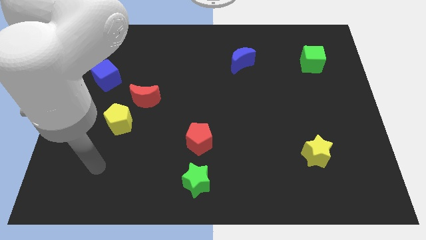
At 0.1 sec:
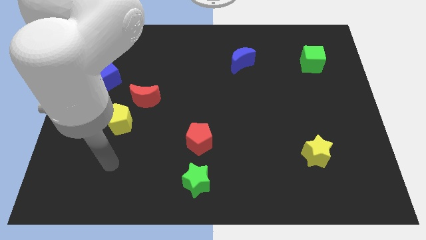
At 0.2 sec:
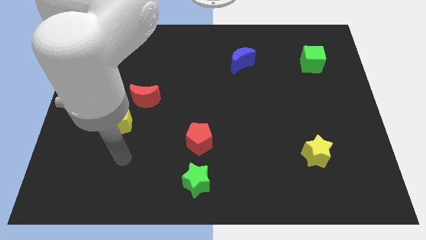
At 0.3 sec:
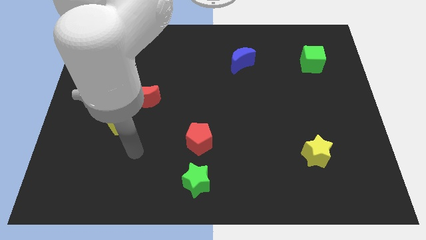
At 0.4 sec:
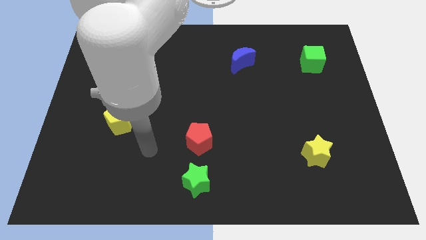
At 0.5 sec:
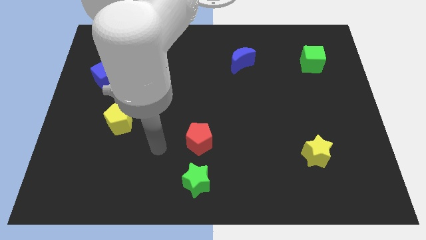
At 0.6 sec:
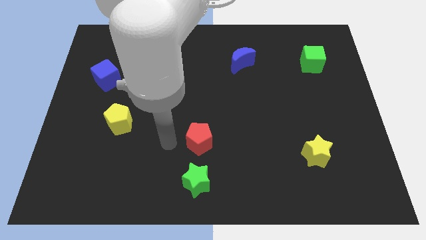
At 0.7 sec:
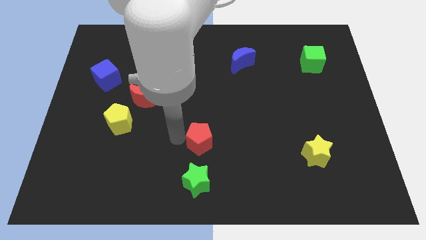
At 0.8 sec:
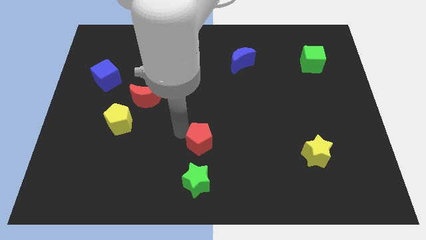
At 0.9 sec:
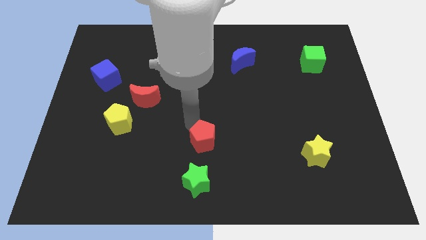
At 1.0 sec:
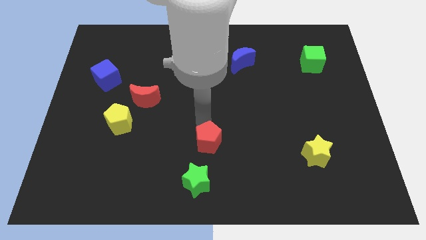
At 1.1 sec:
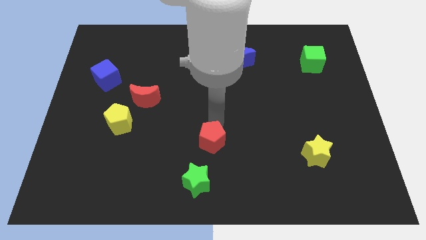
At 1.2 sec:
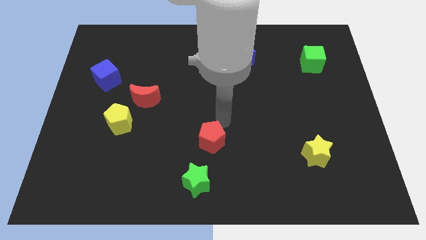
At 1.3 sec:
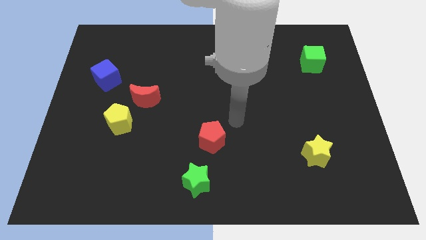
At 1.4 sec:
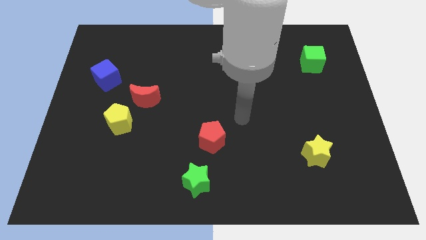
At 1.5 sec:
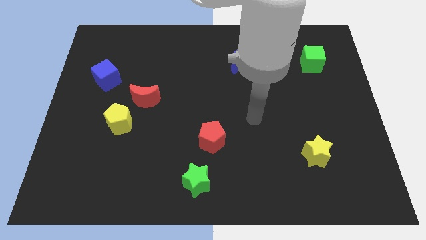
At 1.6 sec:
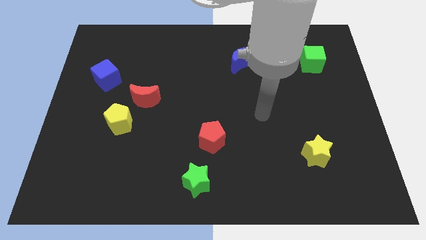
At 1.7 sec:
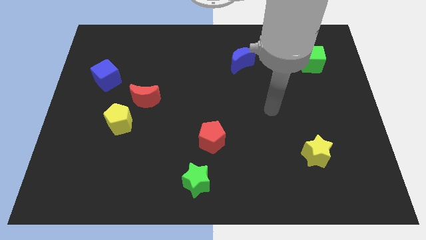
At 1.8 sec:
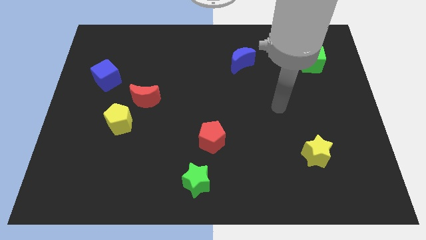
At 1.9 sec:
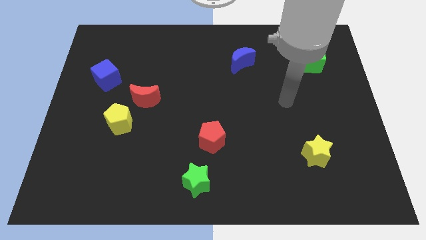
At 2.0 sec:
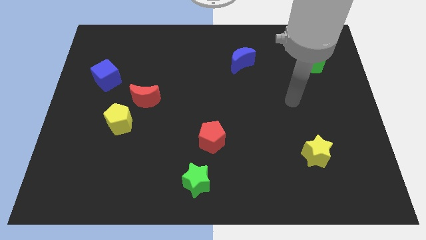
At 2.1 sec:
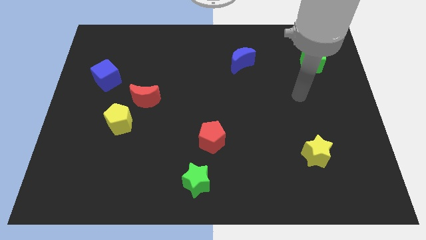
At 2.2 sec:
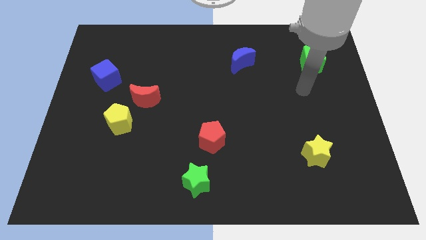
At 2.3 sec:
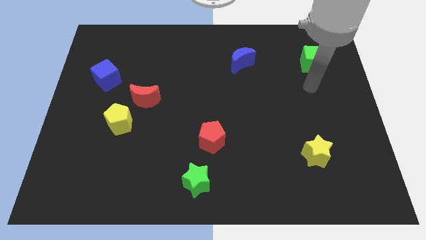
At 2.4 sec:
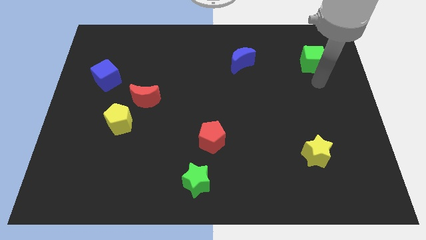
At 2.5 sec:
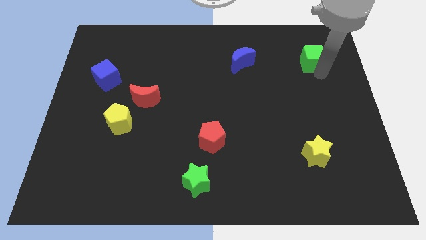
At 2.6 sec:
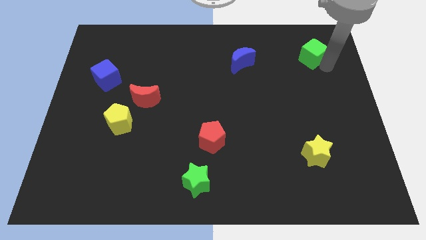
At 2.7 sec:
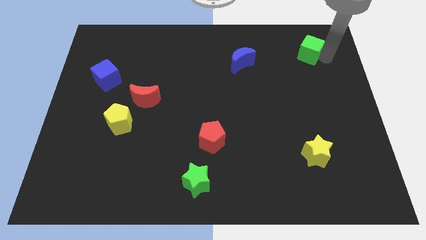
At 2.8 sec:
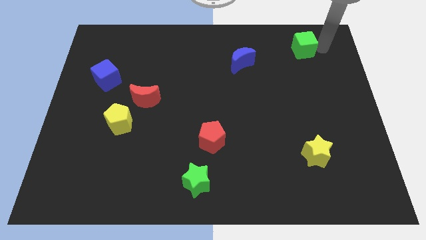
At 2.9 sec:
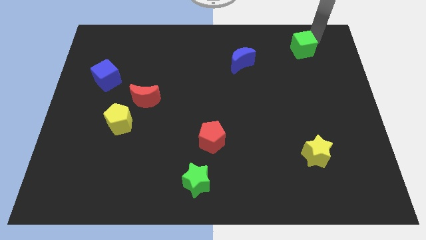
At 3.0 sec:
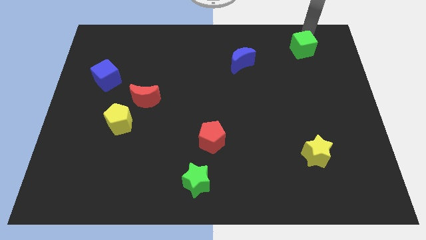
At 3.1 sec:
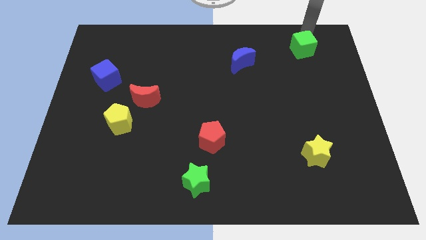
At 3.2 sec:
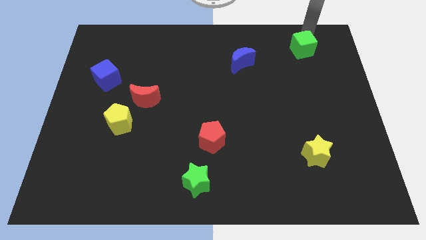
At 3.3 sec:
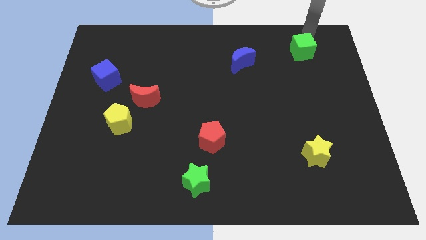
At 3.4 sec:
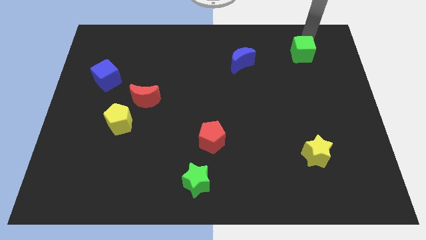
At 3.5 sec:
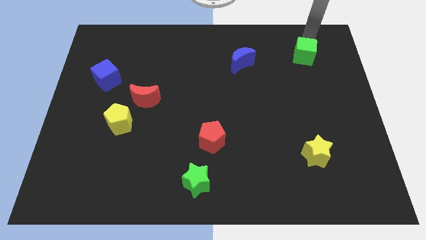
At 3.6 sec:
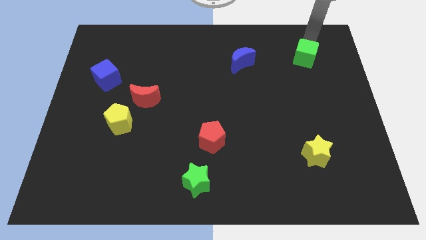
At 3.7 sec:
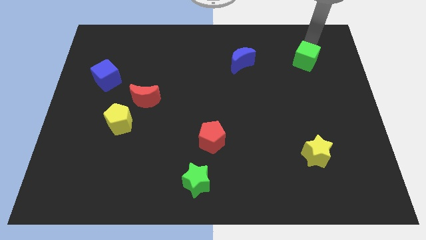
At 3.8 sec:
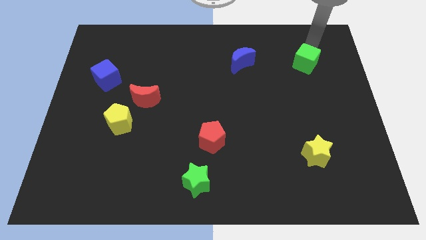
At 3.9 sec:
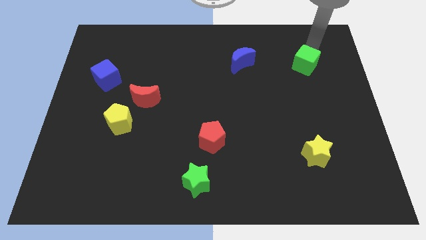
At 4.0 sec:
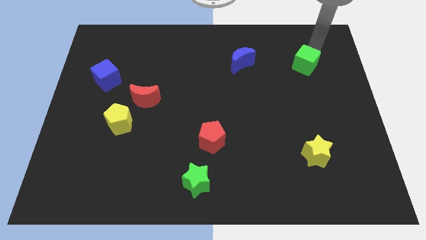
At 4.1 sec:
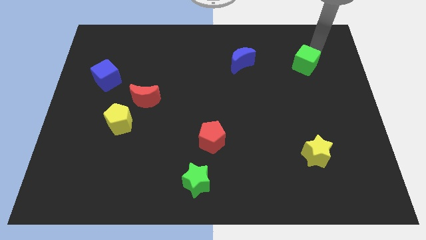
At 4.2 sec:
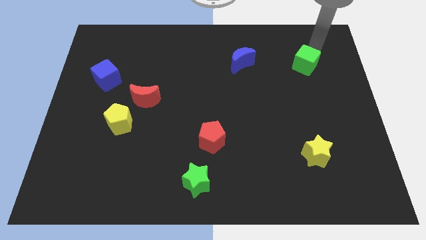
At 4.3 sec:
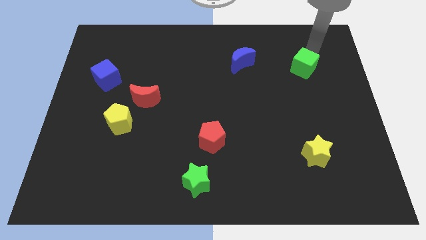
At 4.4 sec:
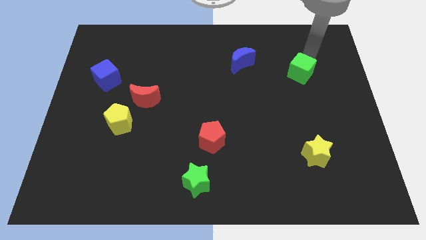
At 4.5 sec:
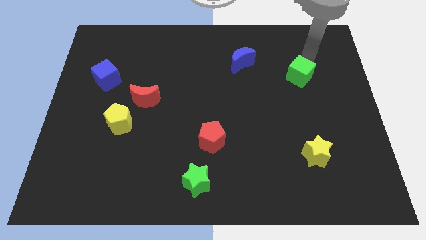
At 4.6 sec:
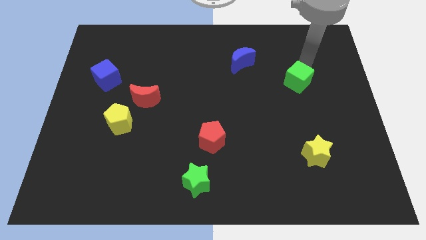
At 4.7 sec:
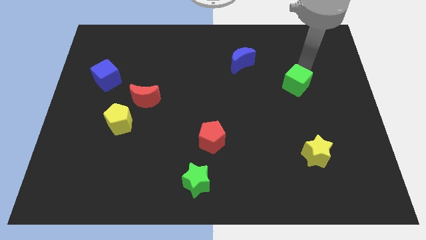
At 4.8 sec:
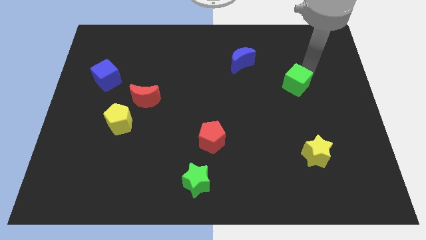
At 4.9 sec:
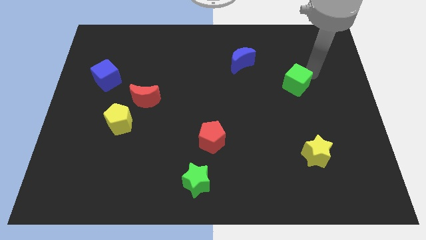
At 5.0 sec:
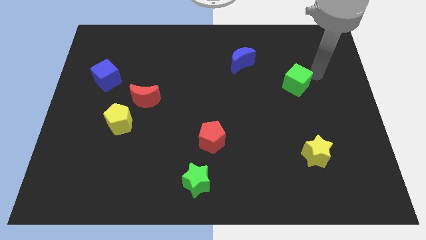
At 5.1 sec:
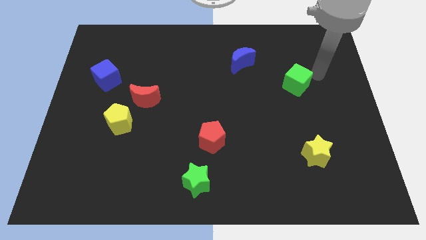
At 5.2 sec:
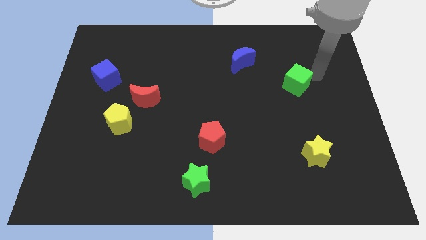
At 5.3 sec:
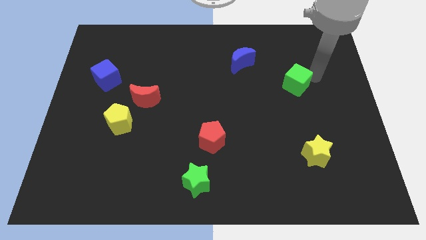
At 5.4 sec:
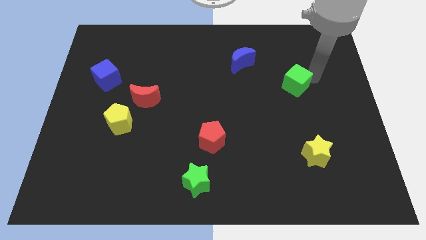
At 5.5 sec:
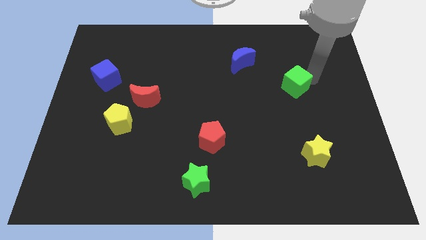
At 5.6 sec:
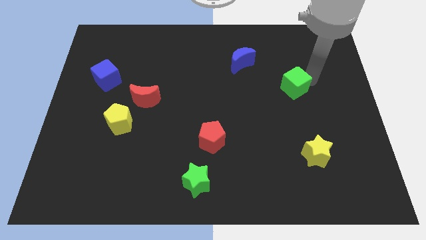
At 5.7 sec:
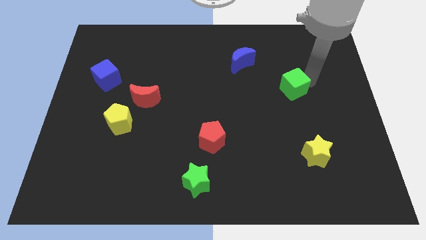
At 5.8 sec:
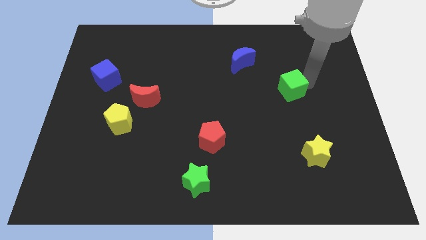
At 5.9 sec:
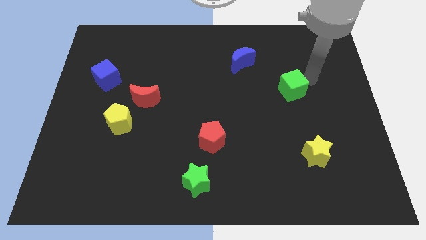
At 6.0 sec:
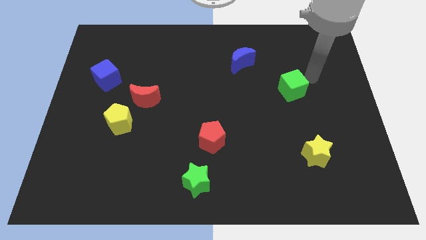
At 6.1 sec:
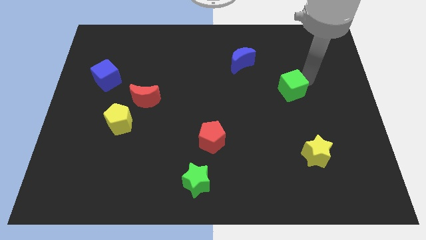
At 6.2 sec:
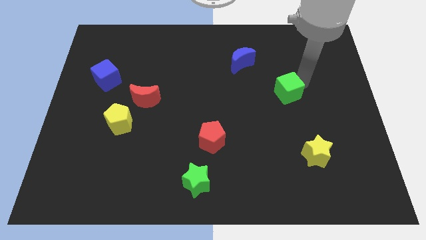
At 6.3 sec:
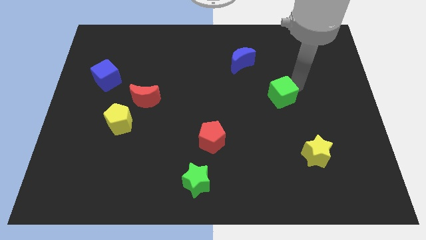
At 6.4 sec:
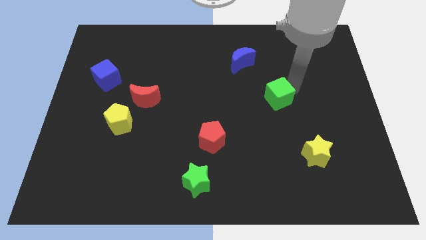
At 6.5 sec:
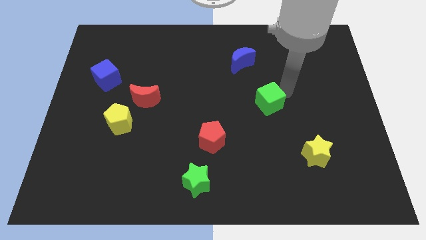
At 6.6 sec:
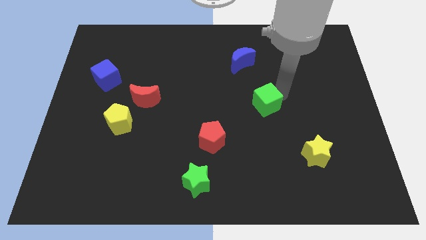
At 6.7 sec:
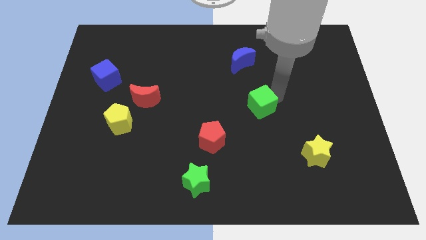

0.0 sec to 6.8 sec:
move the green cube down and to the left

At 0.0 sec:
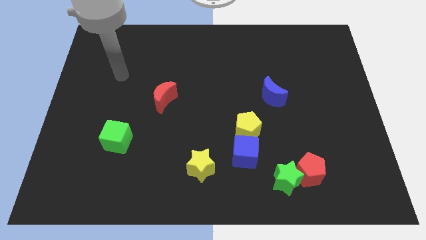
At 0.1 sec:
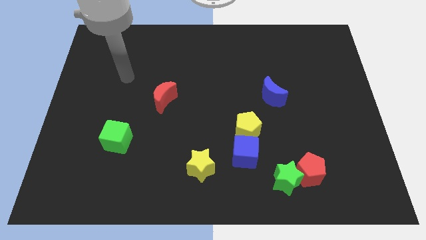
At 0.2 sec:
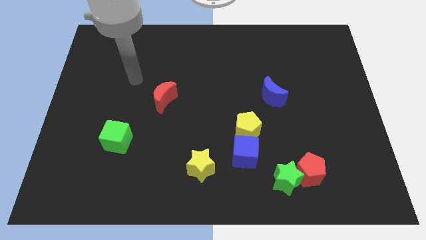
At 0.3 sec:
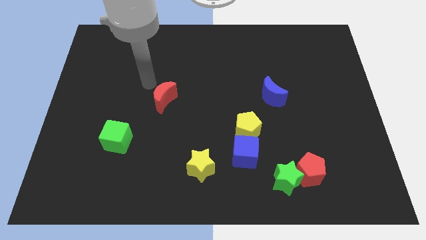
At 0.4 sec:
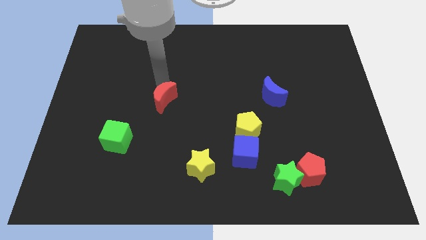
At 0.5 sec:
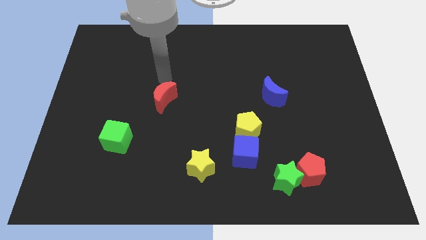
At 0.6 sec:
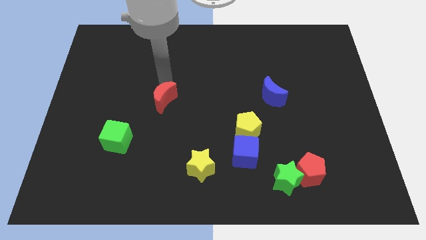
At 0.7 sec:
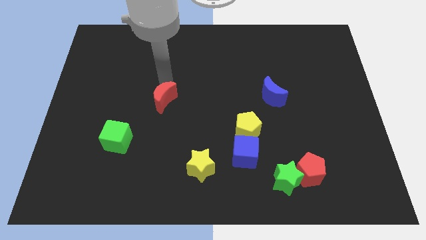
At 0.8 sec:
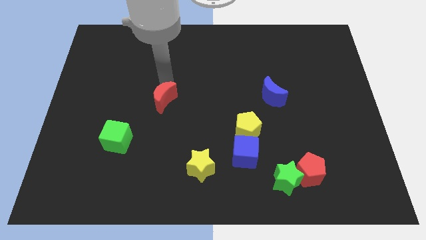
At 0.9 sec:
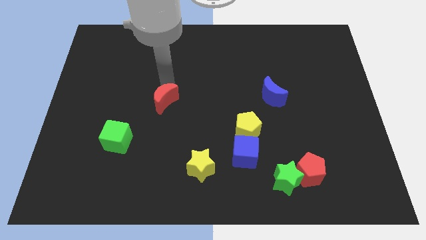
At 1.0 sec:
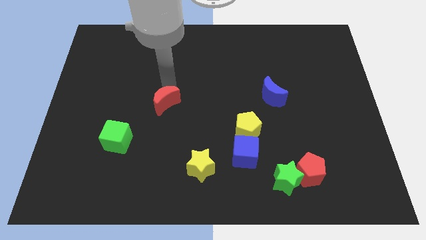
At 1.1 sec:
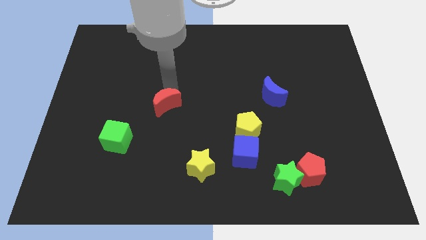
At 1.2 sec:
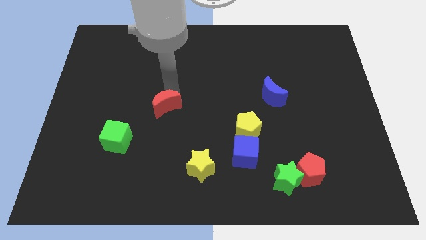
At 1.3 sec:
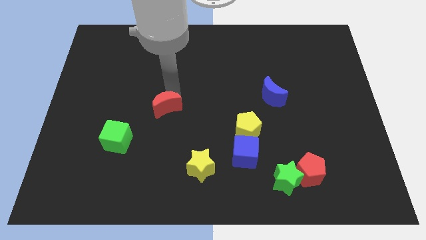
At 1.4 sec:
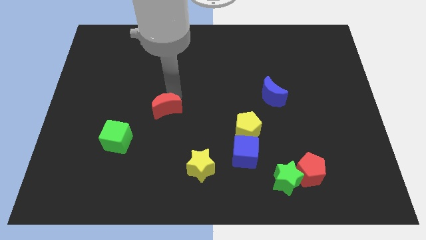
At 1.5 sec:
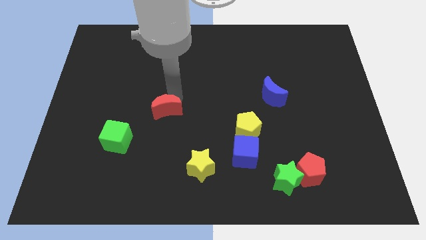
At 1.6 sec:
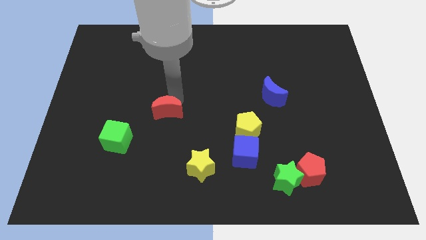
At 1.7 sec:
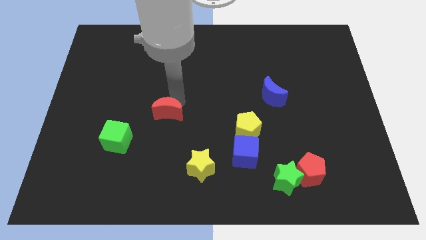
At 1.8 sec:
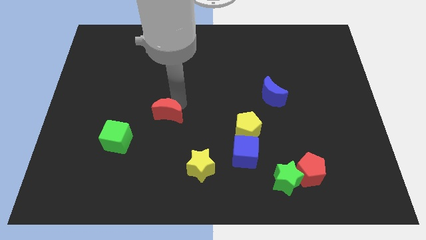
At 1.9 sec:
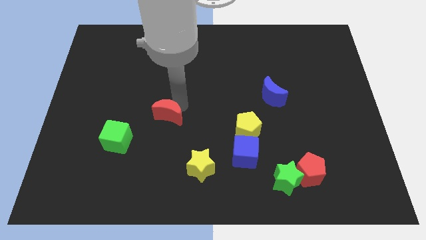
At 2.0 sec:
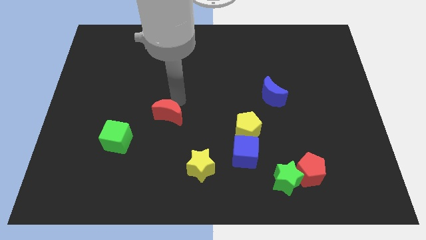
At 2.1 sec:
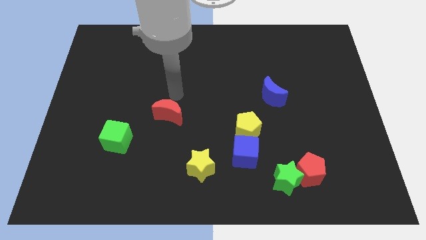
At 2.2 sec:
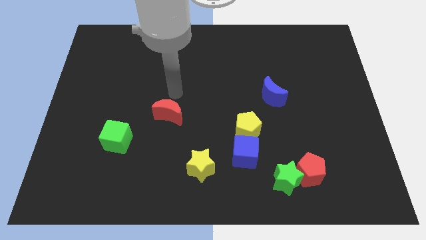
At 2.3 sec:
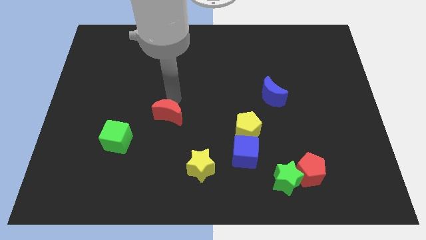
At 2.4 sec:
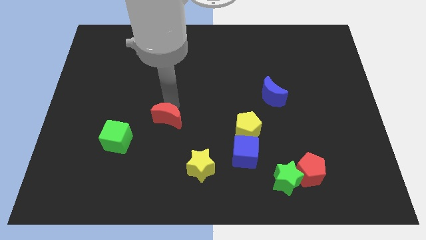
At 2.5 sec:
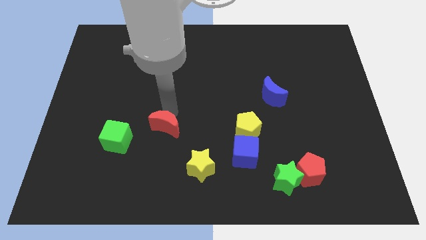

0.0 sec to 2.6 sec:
slightly push the red moon down
